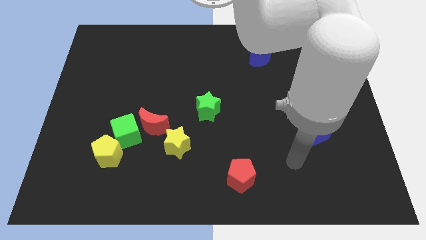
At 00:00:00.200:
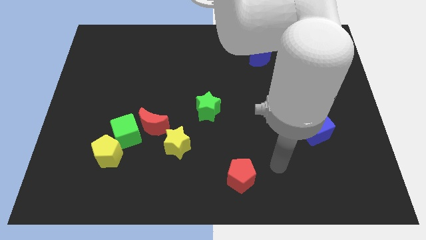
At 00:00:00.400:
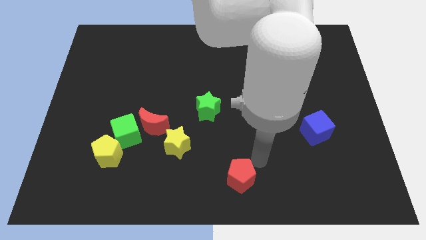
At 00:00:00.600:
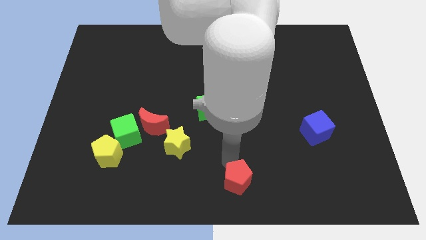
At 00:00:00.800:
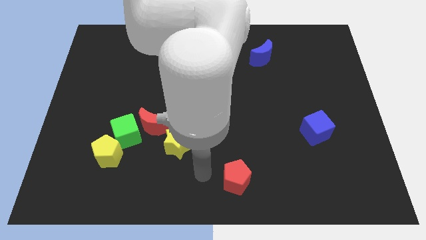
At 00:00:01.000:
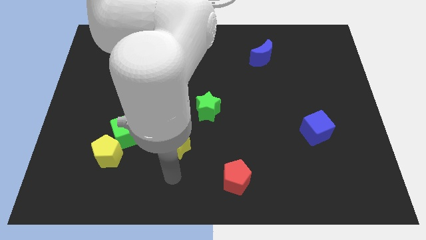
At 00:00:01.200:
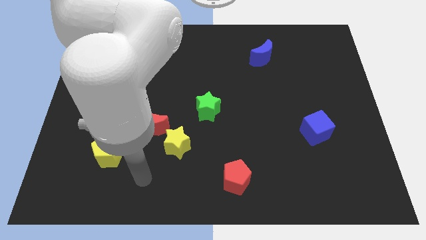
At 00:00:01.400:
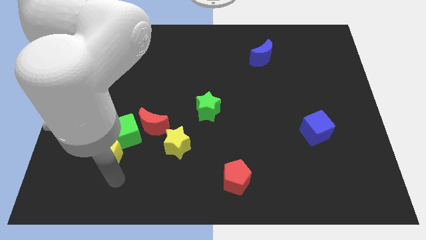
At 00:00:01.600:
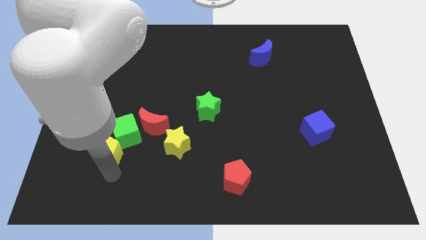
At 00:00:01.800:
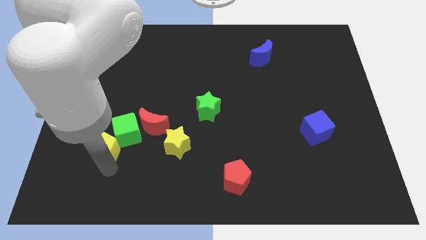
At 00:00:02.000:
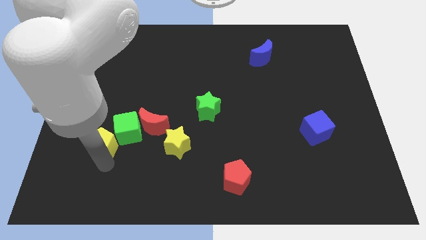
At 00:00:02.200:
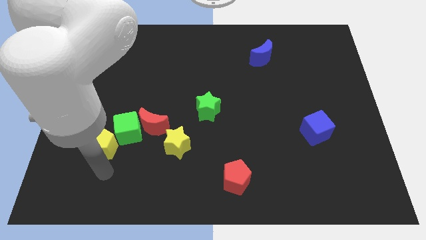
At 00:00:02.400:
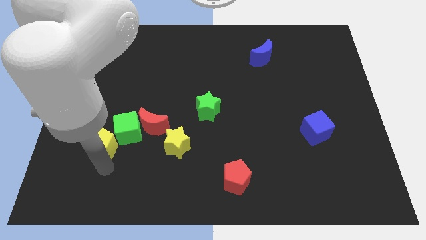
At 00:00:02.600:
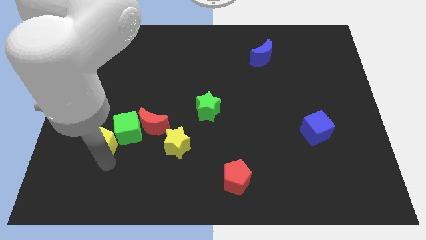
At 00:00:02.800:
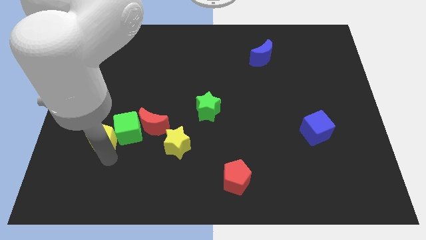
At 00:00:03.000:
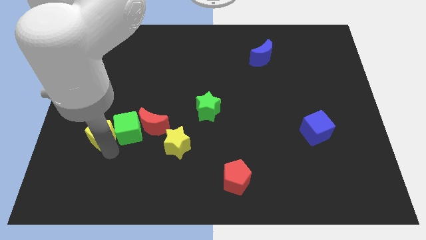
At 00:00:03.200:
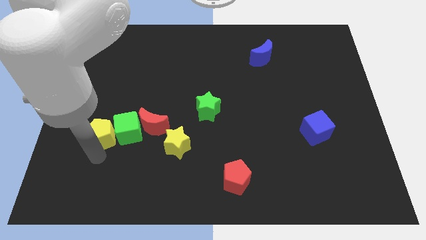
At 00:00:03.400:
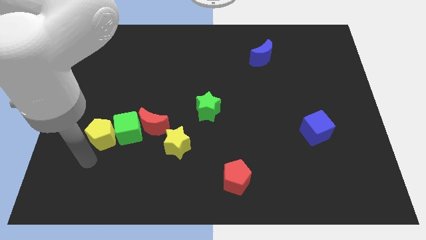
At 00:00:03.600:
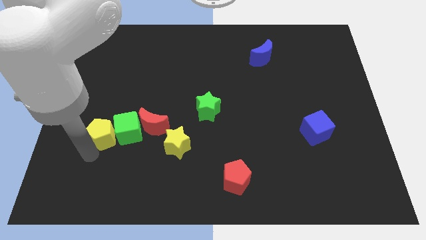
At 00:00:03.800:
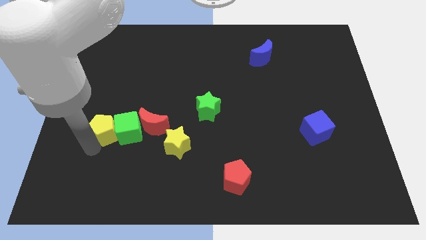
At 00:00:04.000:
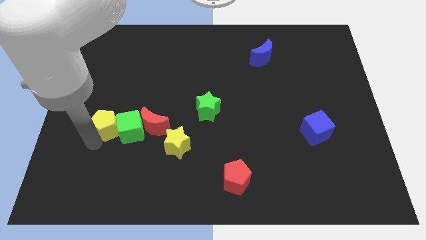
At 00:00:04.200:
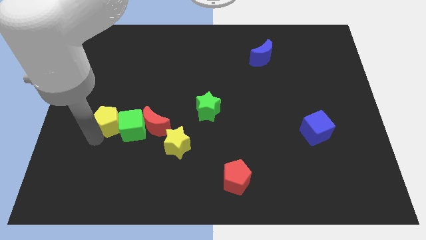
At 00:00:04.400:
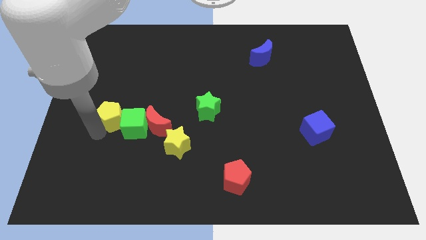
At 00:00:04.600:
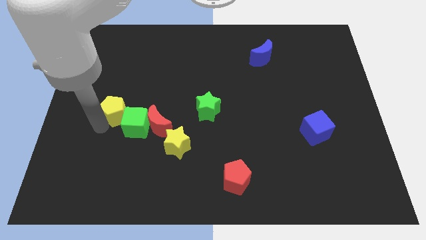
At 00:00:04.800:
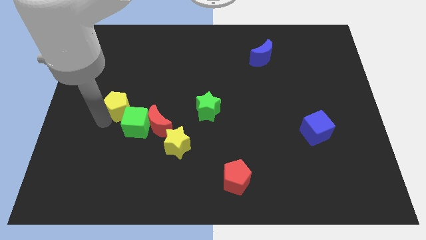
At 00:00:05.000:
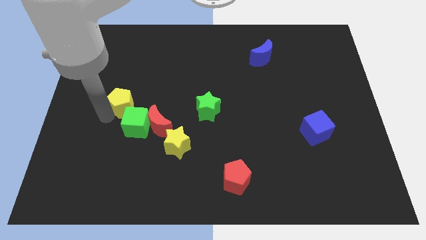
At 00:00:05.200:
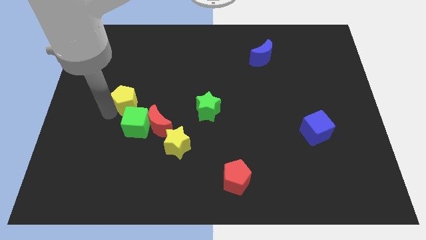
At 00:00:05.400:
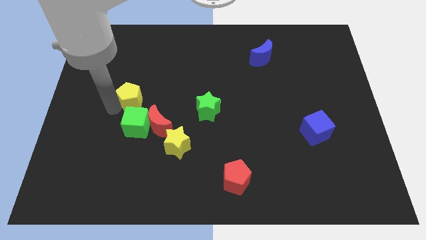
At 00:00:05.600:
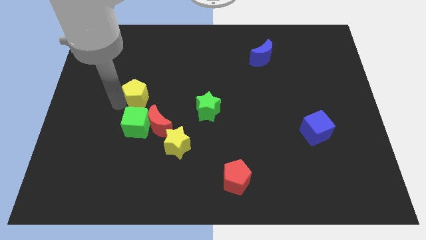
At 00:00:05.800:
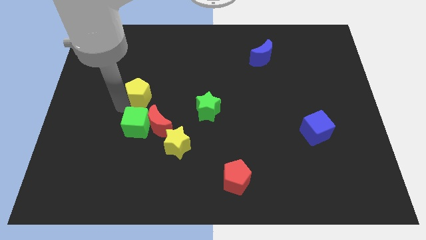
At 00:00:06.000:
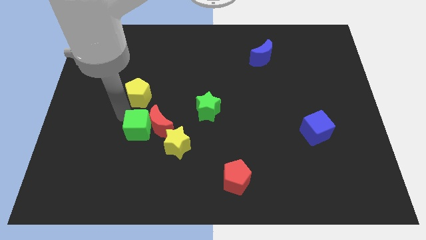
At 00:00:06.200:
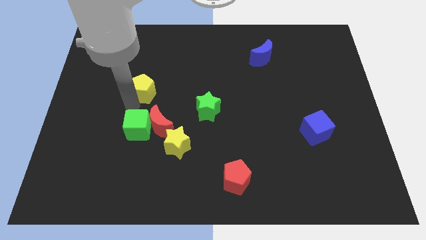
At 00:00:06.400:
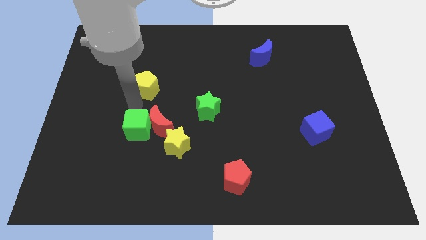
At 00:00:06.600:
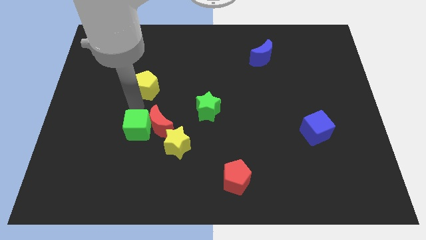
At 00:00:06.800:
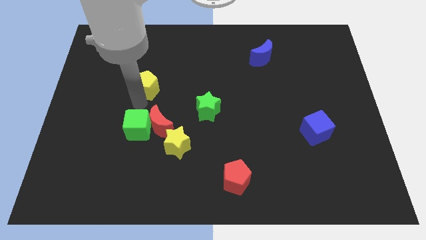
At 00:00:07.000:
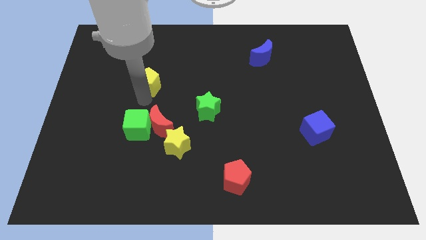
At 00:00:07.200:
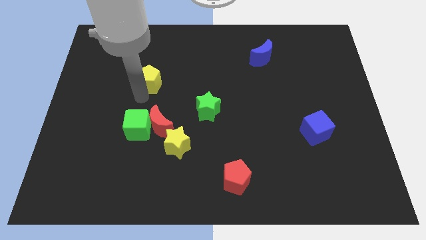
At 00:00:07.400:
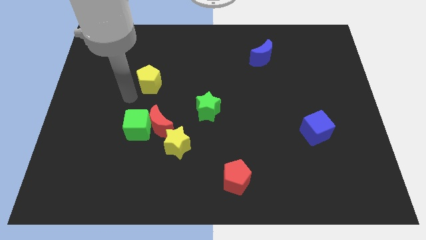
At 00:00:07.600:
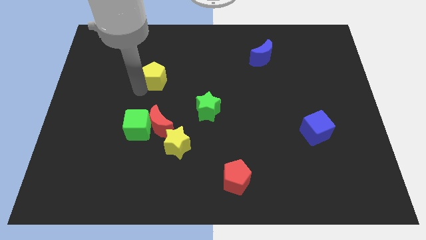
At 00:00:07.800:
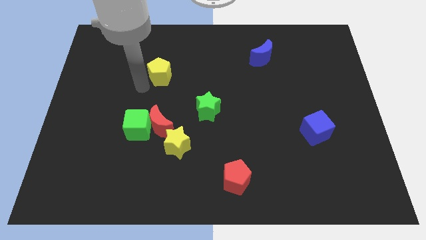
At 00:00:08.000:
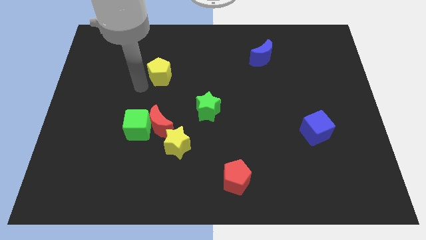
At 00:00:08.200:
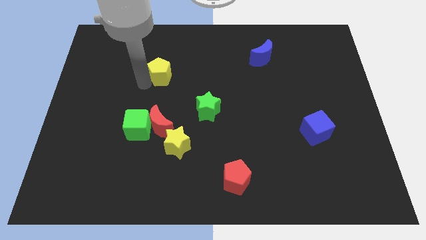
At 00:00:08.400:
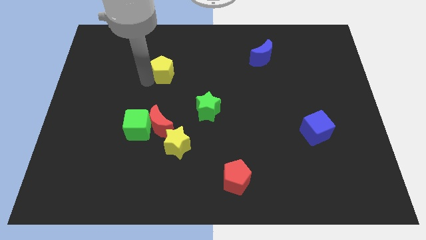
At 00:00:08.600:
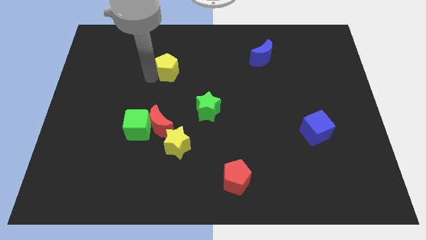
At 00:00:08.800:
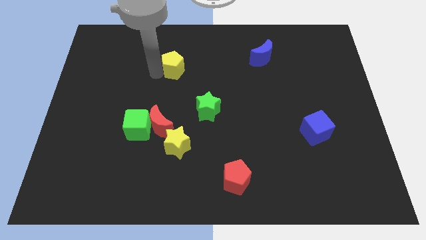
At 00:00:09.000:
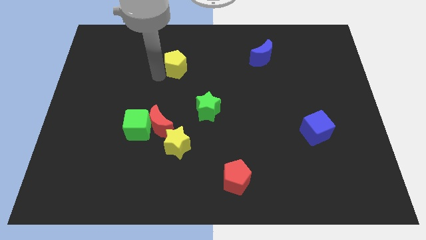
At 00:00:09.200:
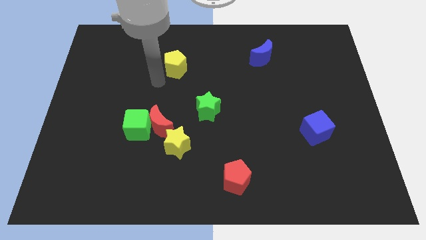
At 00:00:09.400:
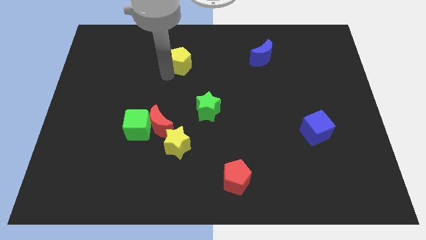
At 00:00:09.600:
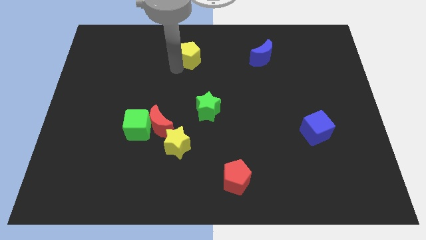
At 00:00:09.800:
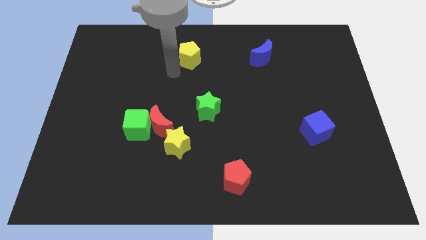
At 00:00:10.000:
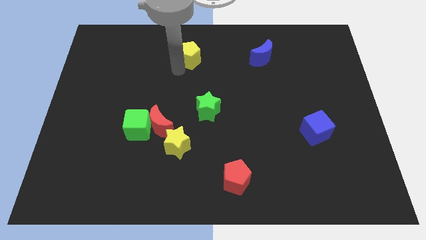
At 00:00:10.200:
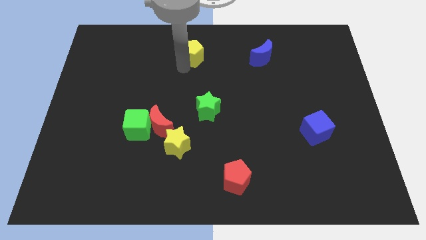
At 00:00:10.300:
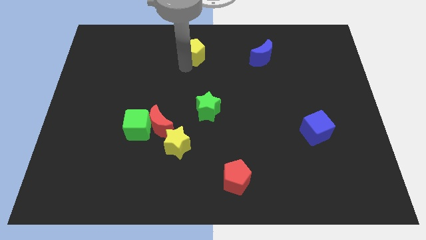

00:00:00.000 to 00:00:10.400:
push the yellow pentagon to the top

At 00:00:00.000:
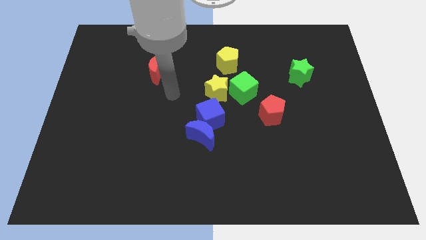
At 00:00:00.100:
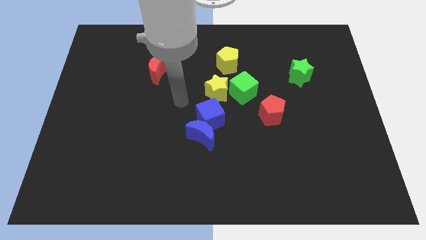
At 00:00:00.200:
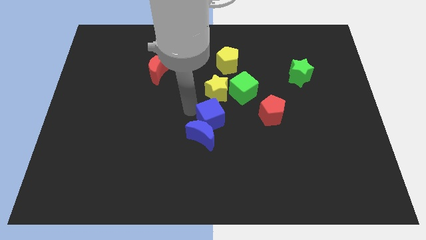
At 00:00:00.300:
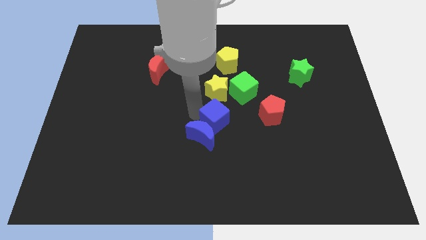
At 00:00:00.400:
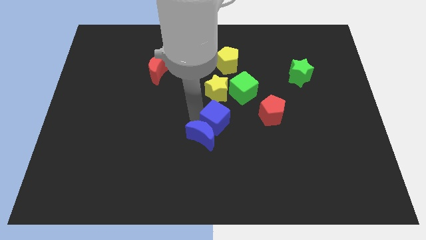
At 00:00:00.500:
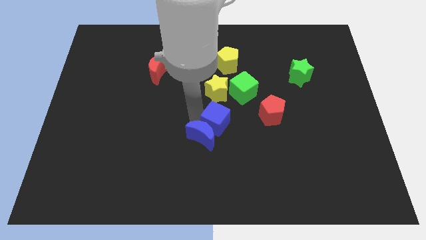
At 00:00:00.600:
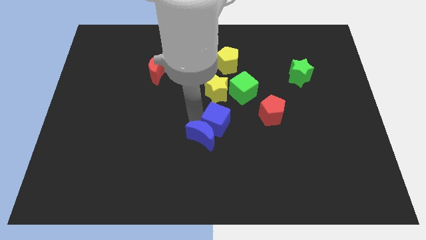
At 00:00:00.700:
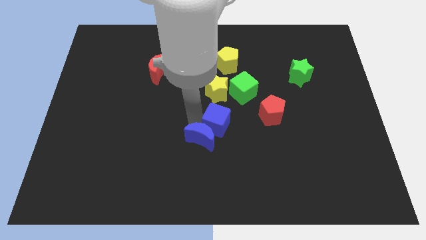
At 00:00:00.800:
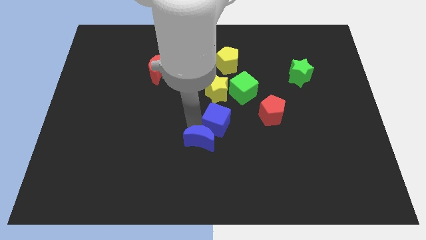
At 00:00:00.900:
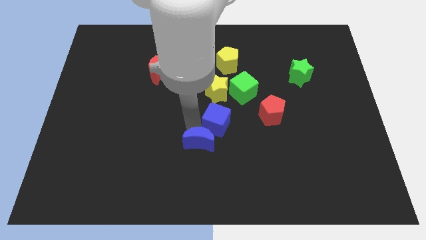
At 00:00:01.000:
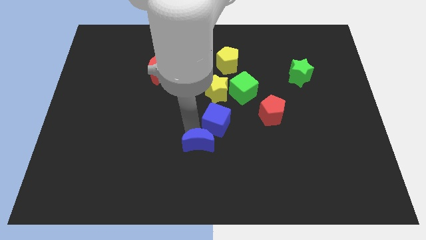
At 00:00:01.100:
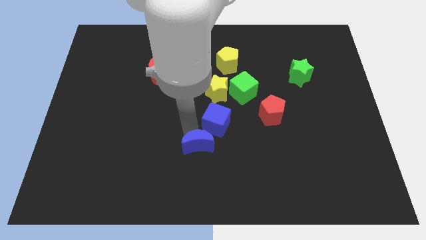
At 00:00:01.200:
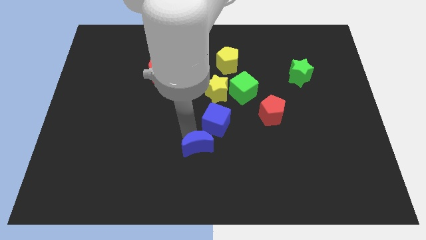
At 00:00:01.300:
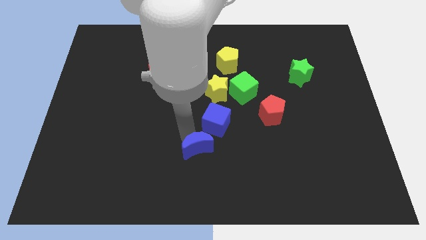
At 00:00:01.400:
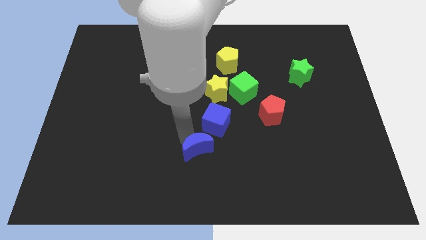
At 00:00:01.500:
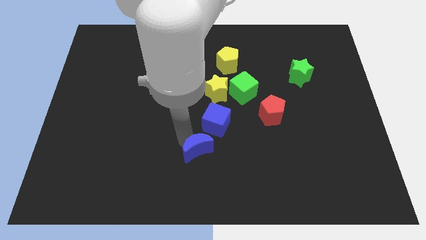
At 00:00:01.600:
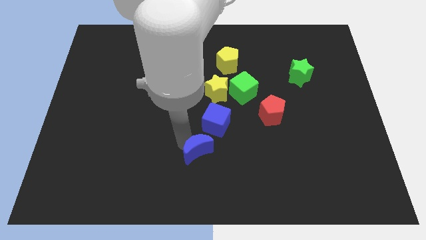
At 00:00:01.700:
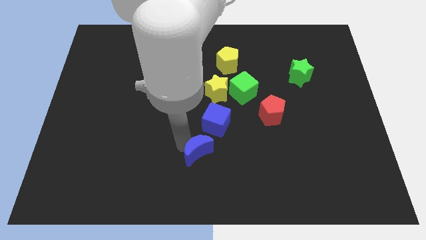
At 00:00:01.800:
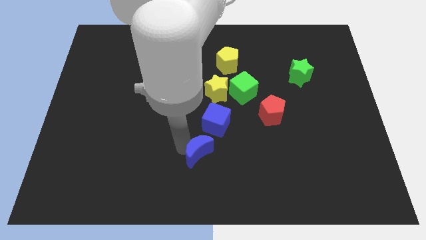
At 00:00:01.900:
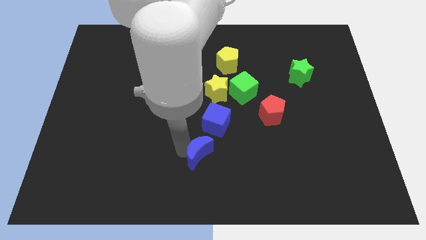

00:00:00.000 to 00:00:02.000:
put the blue moon to the bottom

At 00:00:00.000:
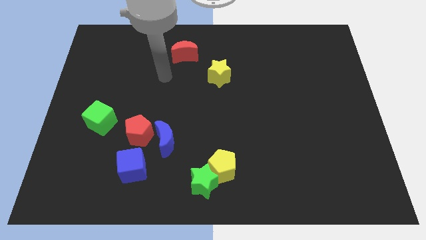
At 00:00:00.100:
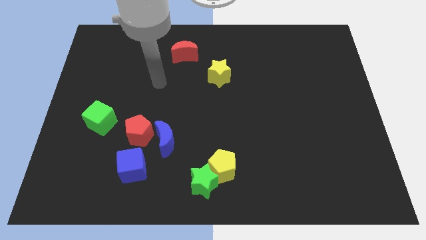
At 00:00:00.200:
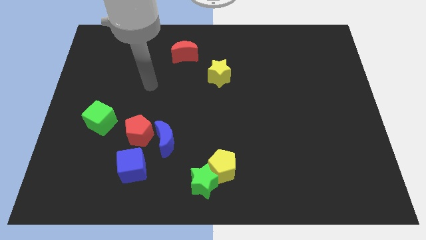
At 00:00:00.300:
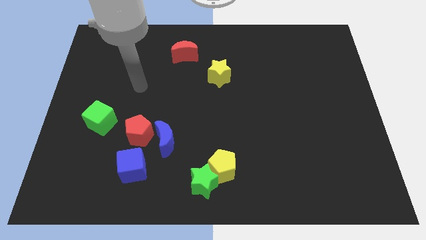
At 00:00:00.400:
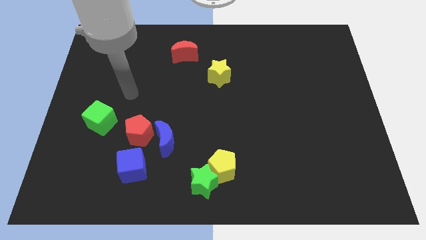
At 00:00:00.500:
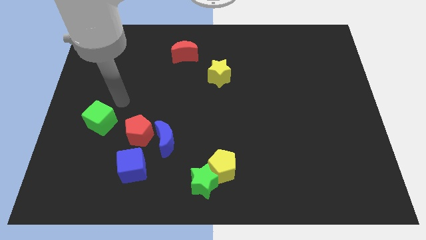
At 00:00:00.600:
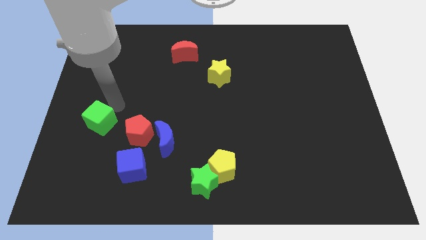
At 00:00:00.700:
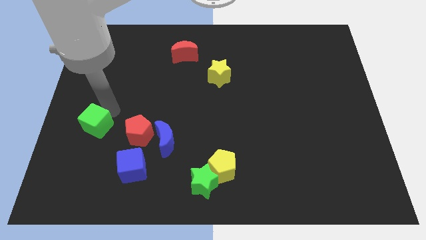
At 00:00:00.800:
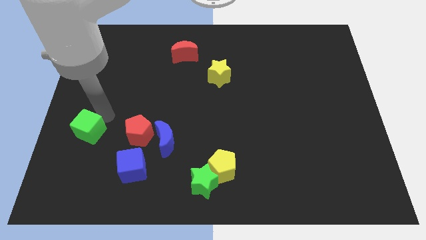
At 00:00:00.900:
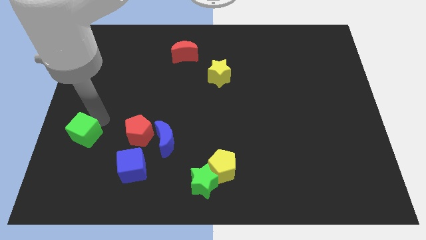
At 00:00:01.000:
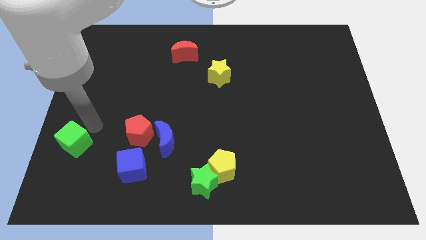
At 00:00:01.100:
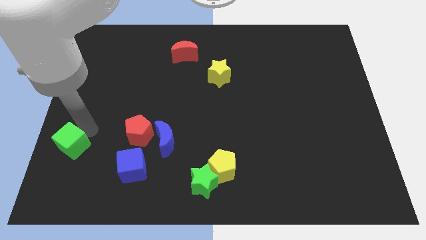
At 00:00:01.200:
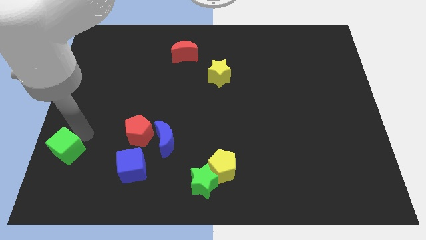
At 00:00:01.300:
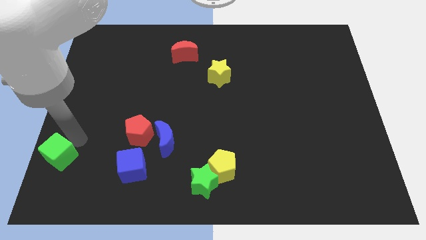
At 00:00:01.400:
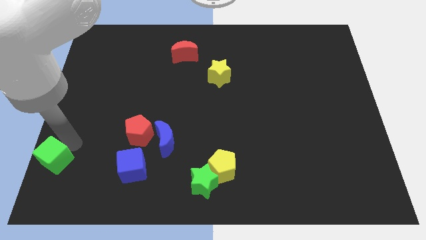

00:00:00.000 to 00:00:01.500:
move the green cube to the bottom left
